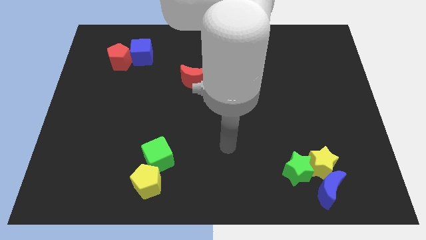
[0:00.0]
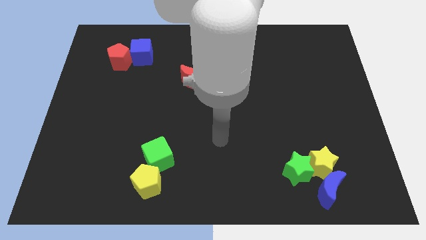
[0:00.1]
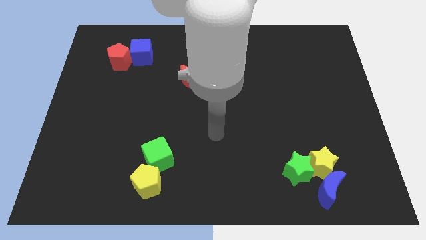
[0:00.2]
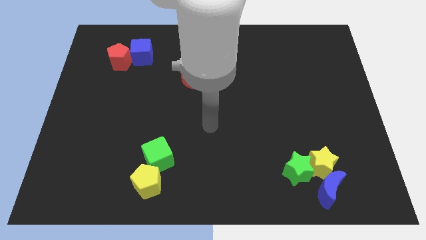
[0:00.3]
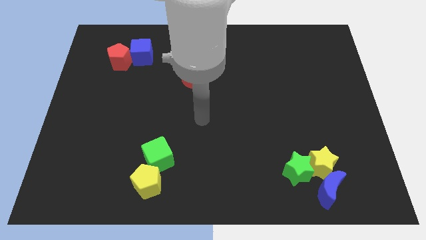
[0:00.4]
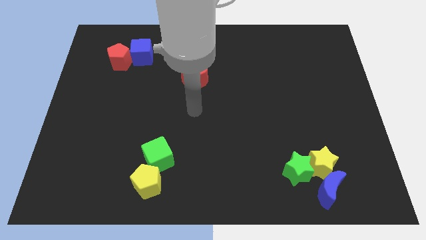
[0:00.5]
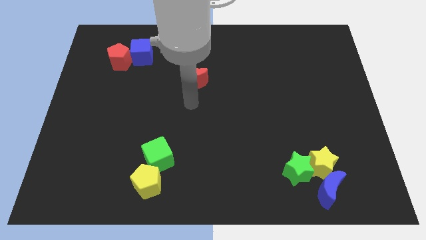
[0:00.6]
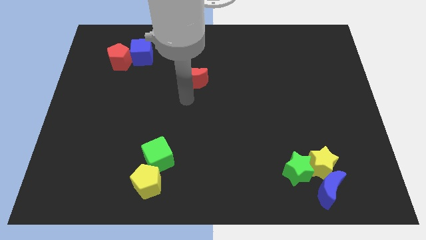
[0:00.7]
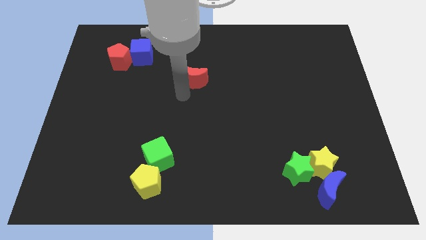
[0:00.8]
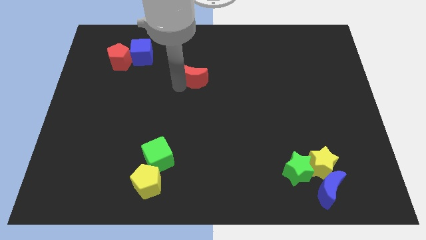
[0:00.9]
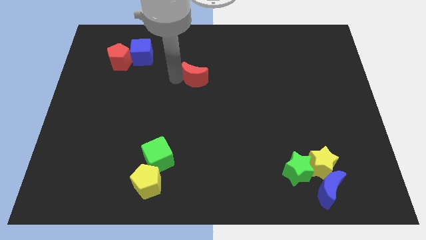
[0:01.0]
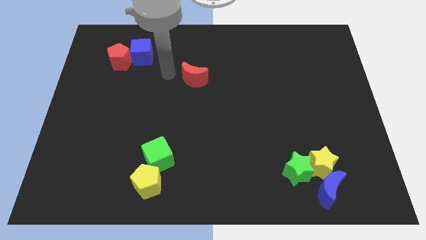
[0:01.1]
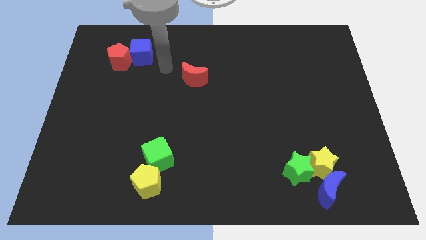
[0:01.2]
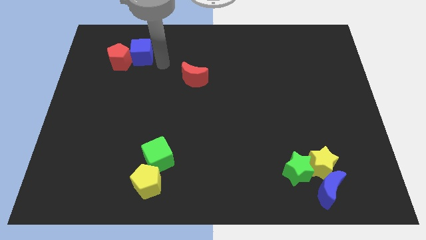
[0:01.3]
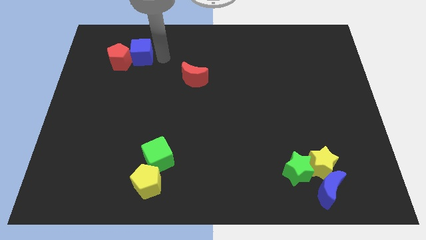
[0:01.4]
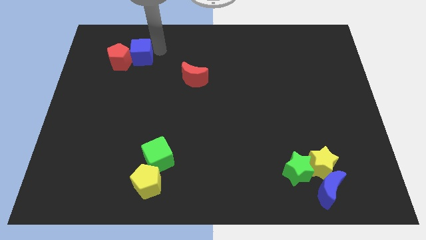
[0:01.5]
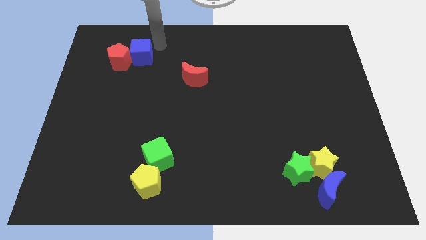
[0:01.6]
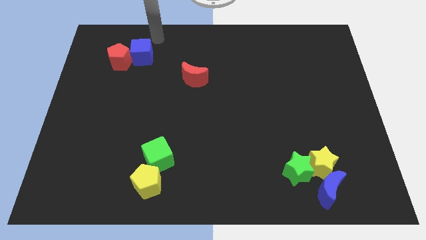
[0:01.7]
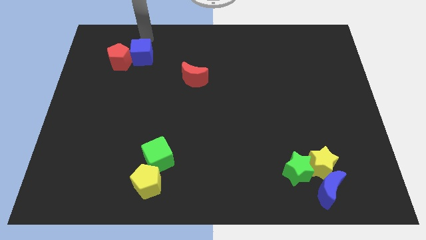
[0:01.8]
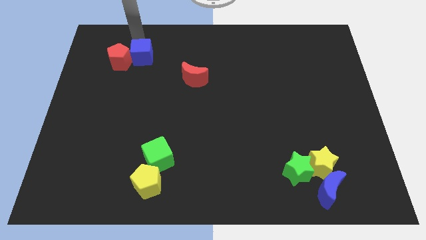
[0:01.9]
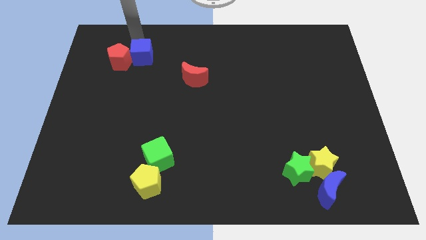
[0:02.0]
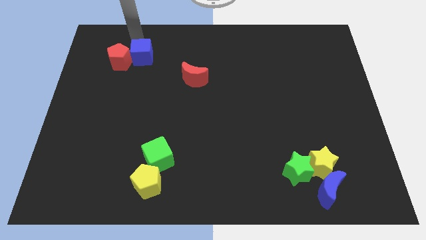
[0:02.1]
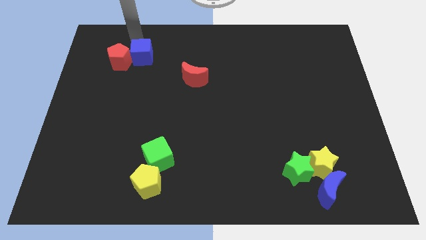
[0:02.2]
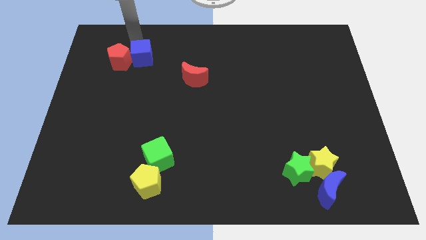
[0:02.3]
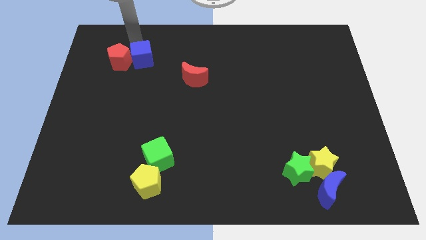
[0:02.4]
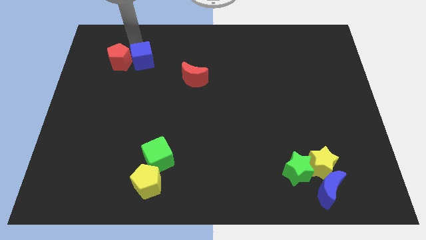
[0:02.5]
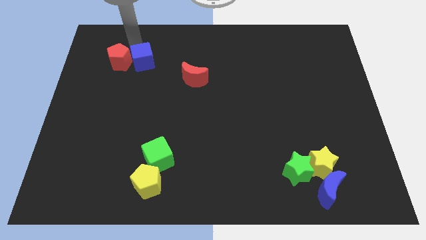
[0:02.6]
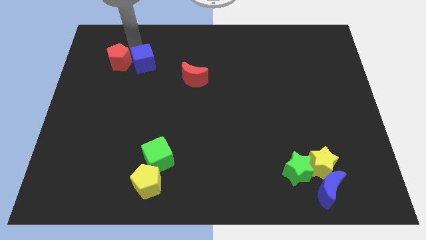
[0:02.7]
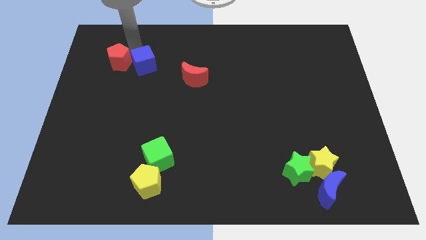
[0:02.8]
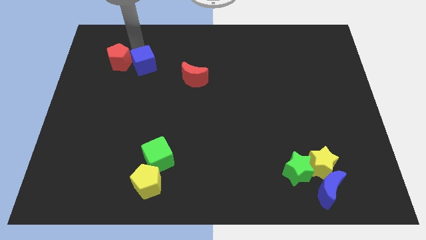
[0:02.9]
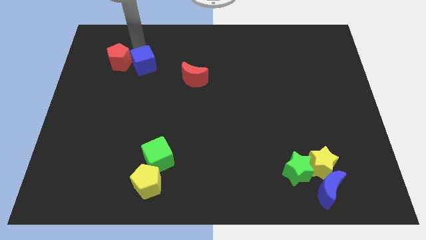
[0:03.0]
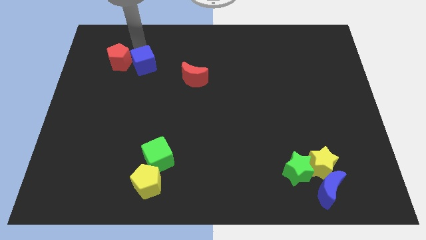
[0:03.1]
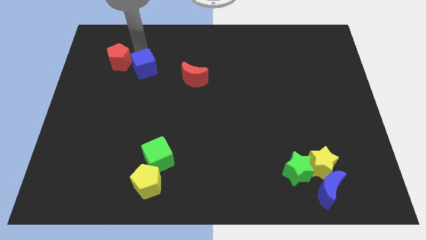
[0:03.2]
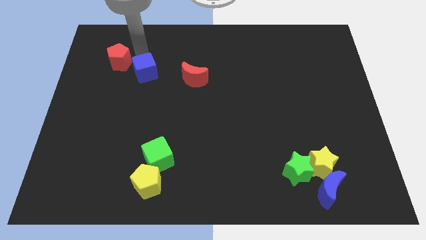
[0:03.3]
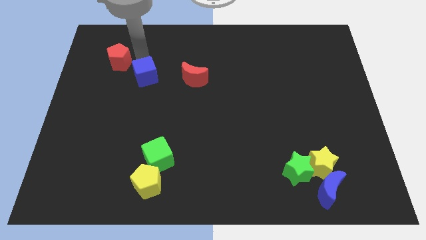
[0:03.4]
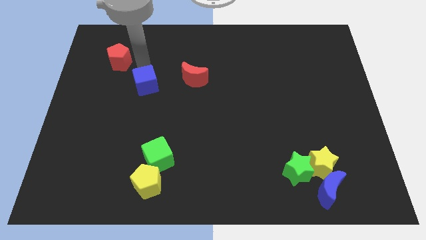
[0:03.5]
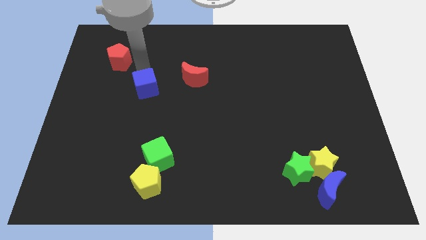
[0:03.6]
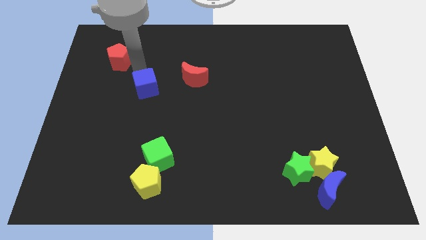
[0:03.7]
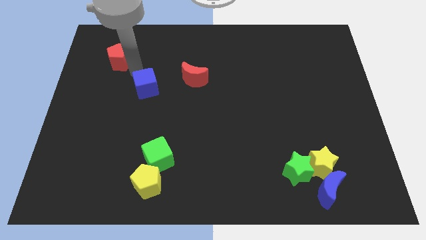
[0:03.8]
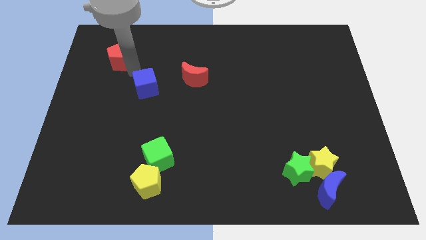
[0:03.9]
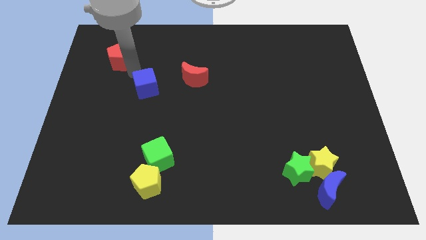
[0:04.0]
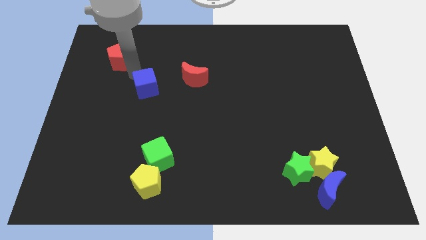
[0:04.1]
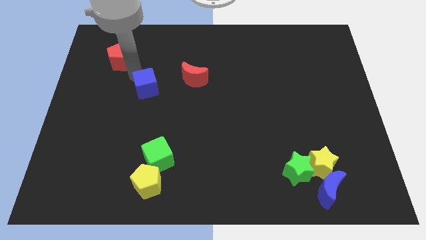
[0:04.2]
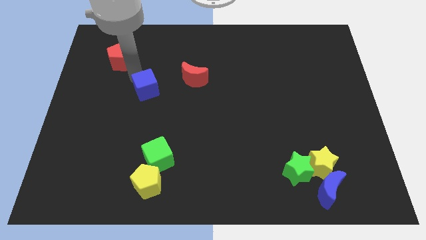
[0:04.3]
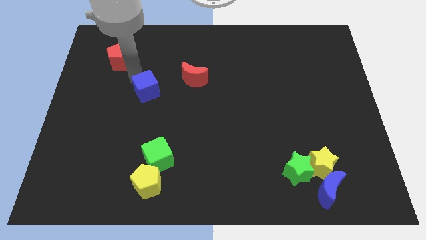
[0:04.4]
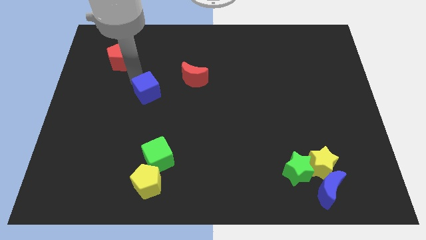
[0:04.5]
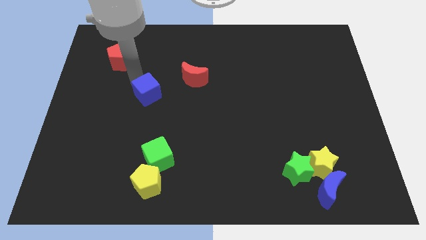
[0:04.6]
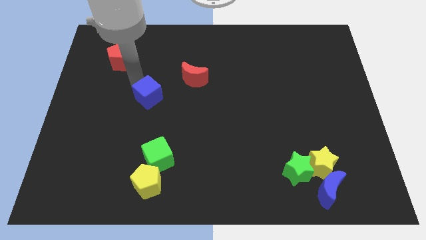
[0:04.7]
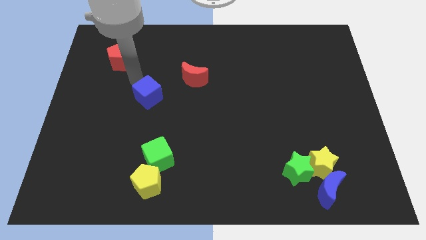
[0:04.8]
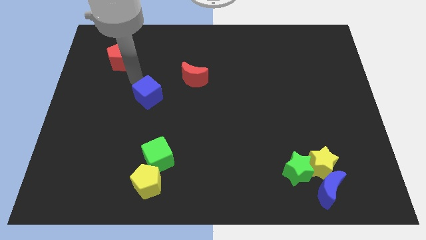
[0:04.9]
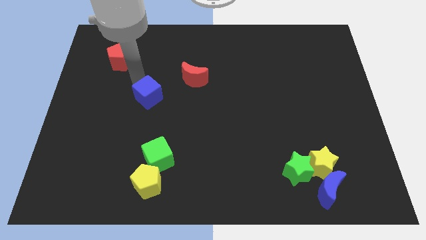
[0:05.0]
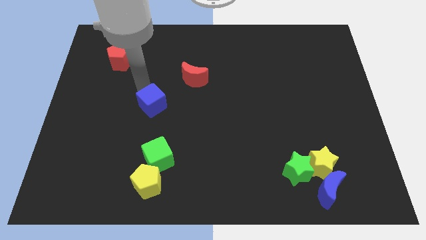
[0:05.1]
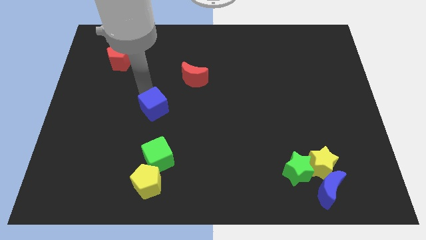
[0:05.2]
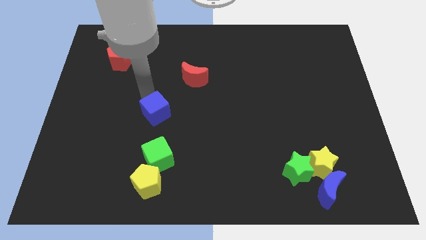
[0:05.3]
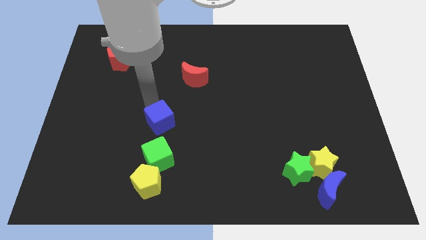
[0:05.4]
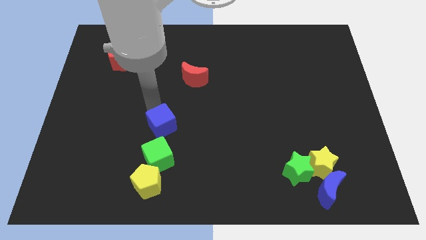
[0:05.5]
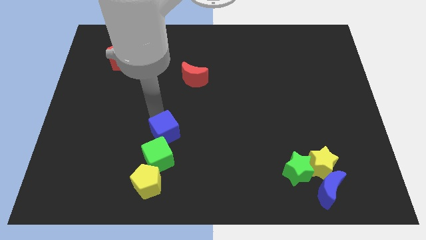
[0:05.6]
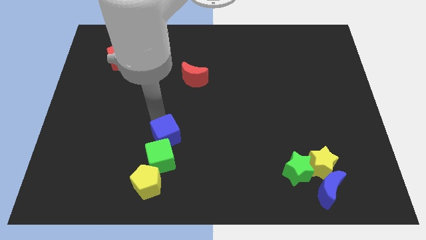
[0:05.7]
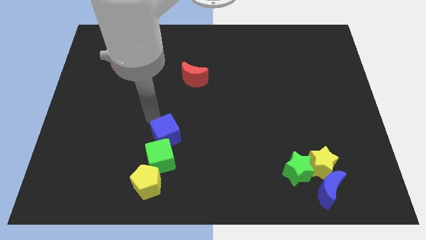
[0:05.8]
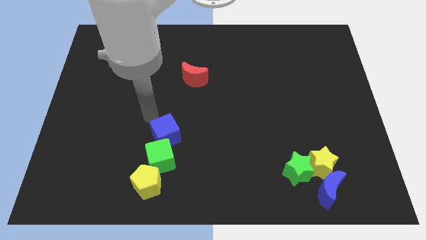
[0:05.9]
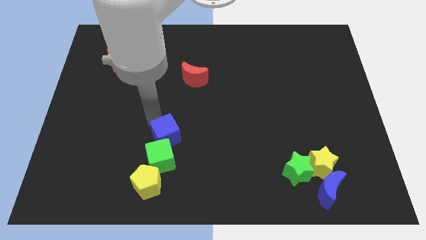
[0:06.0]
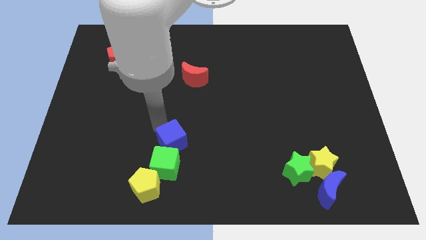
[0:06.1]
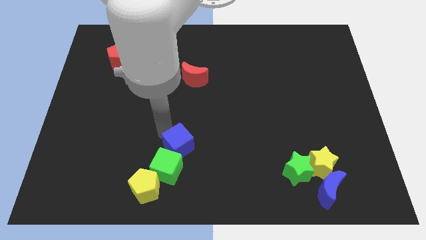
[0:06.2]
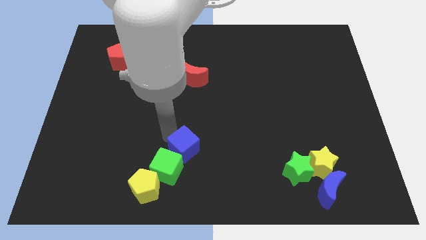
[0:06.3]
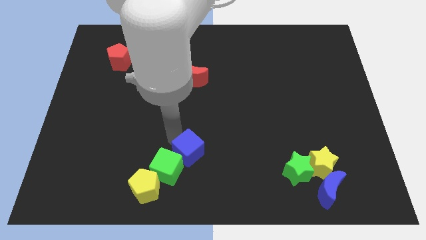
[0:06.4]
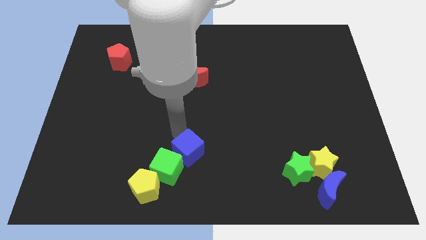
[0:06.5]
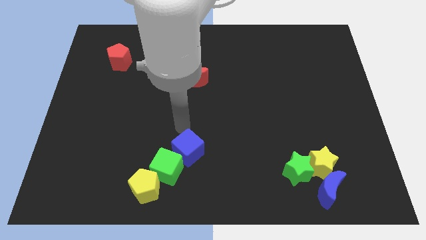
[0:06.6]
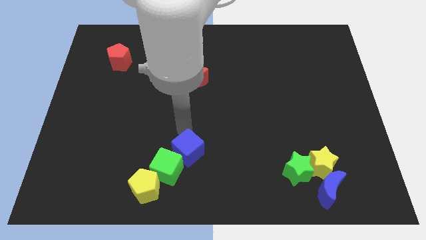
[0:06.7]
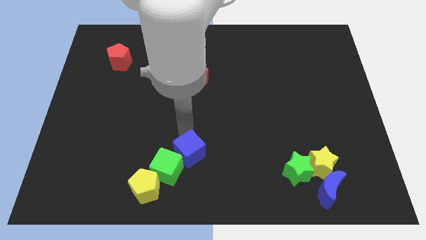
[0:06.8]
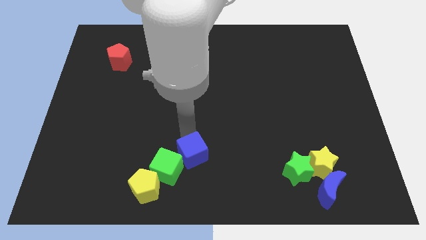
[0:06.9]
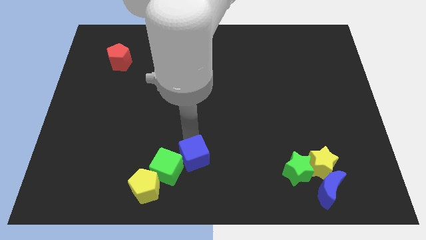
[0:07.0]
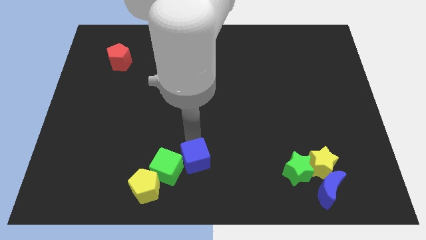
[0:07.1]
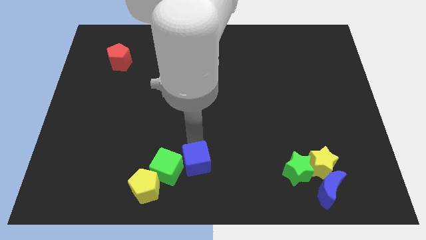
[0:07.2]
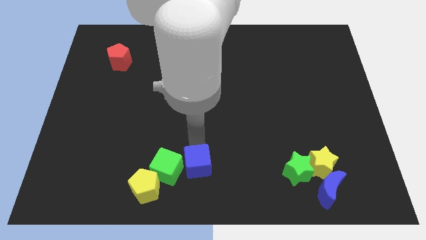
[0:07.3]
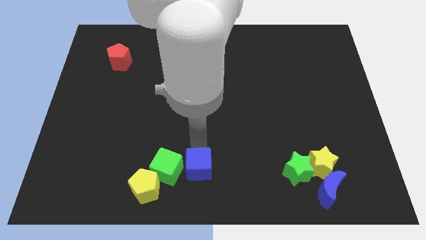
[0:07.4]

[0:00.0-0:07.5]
move the blue cube right of the yellow pentagon

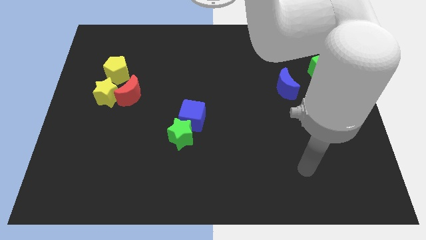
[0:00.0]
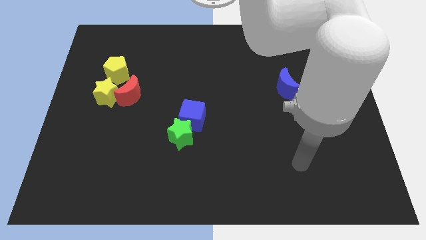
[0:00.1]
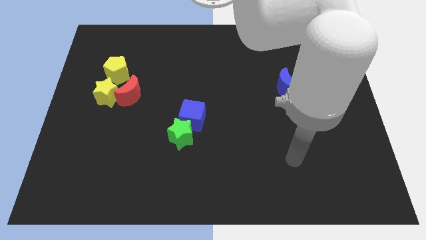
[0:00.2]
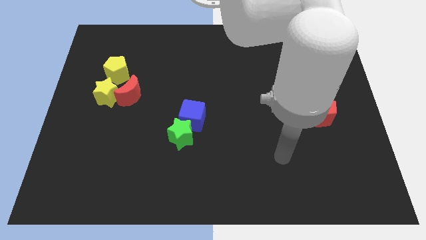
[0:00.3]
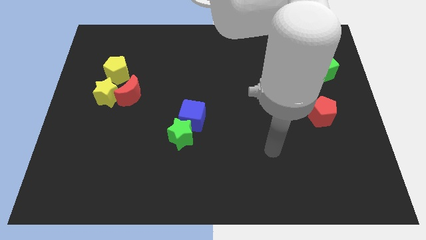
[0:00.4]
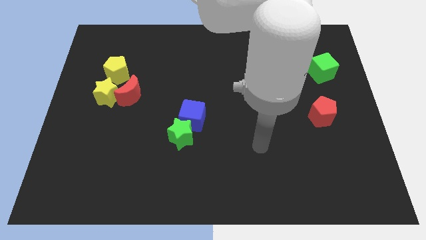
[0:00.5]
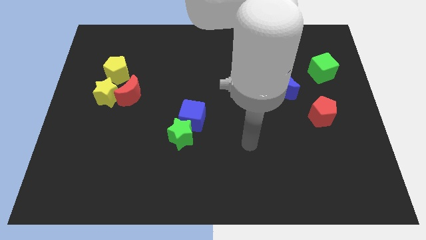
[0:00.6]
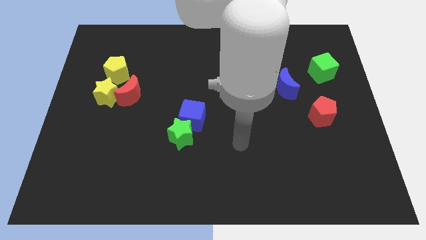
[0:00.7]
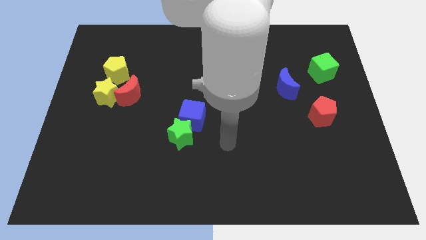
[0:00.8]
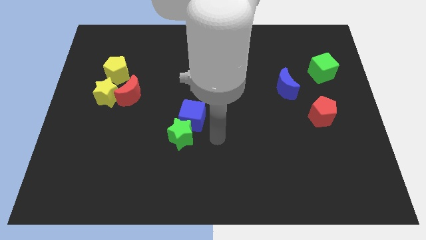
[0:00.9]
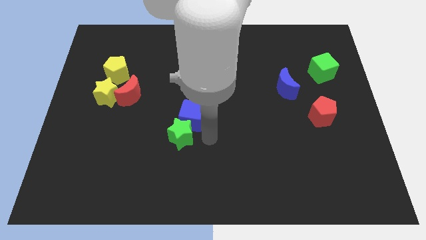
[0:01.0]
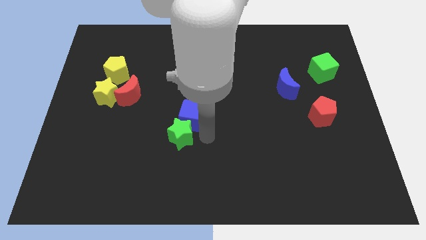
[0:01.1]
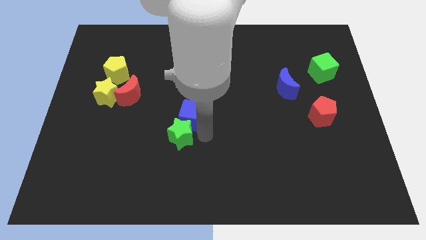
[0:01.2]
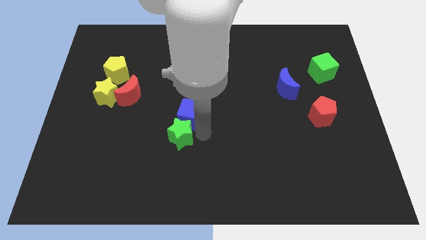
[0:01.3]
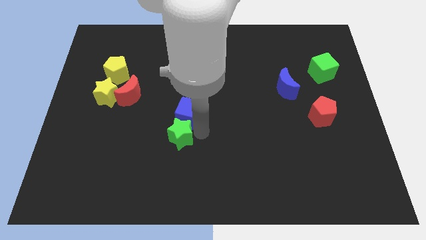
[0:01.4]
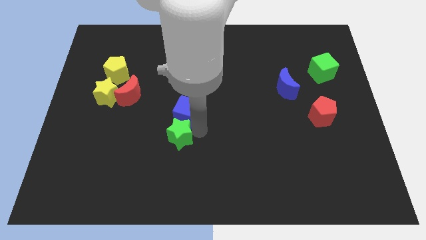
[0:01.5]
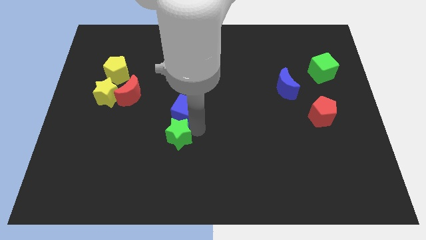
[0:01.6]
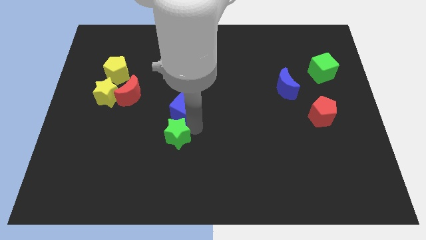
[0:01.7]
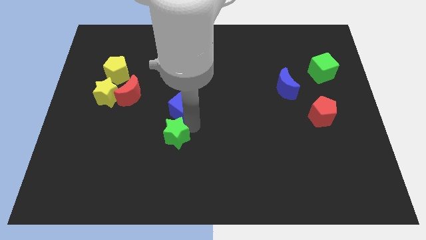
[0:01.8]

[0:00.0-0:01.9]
move the blue cube to the right of the red moon
